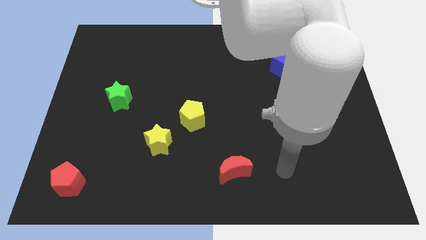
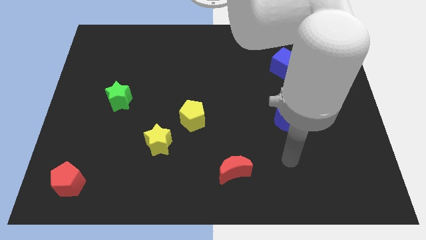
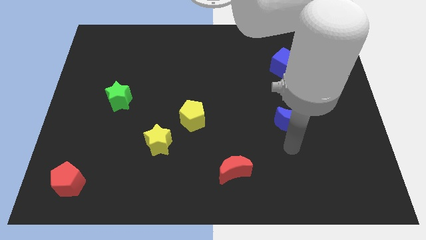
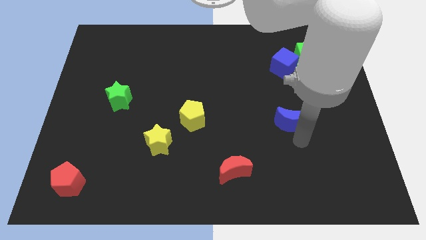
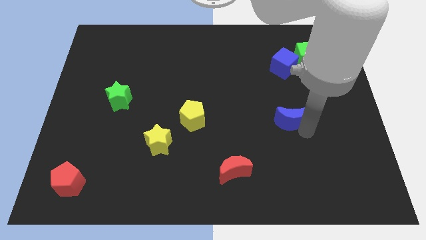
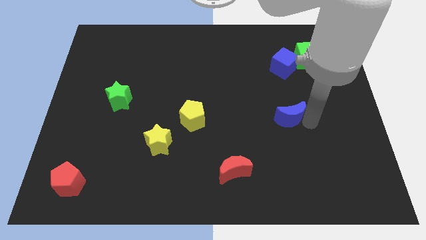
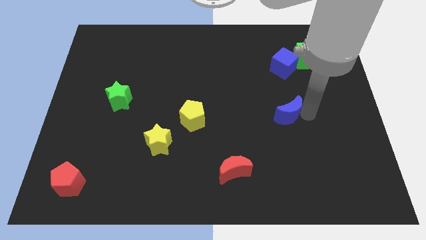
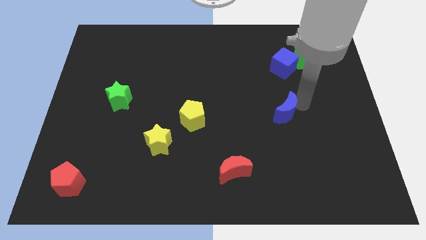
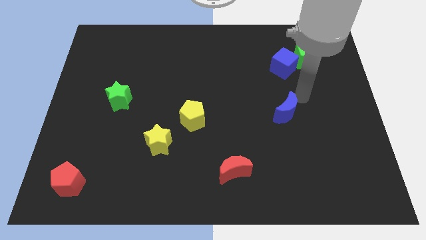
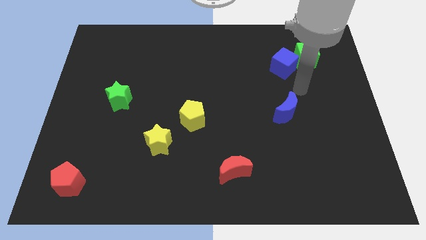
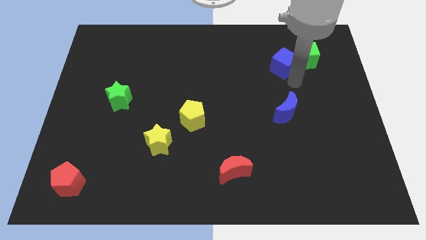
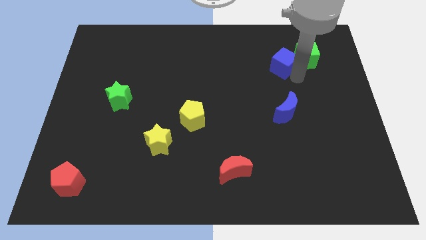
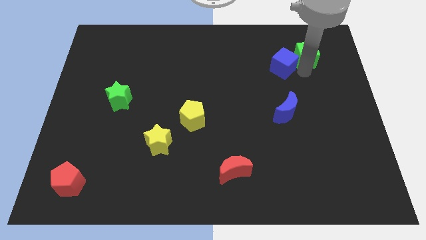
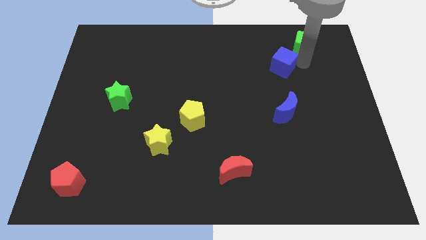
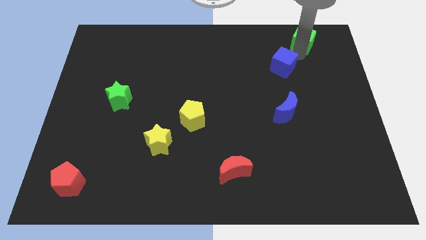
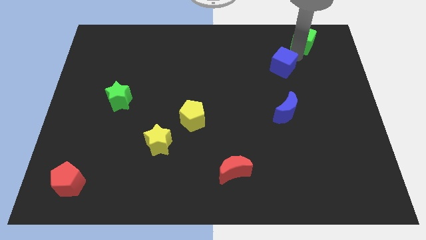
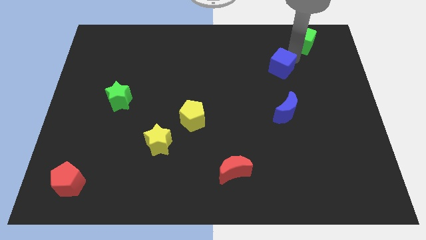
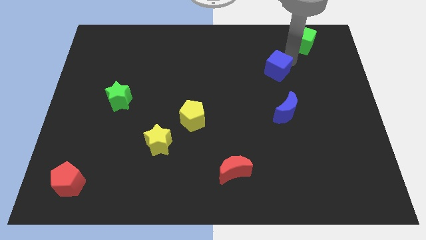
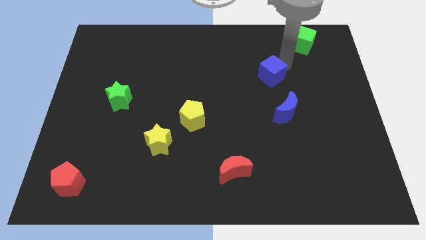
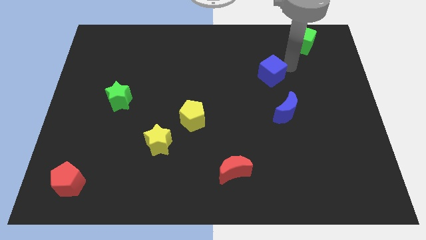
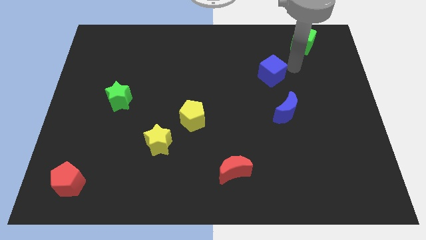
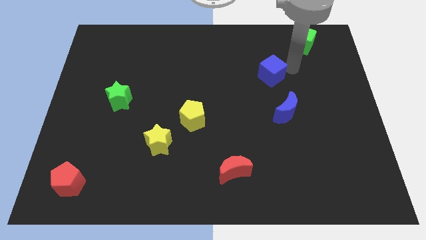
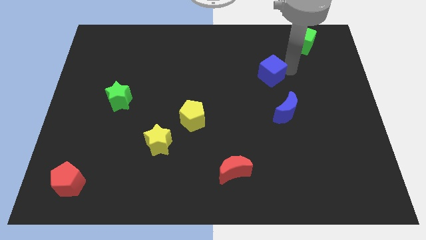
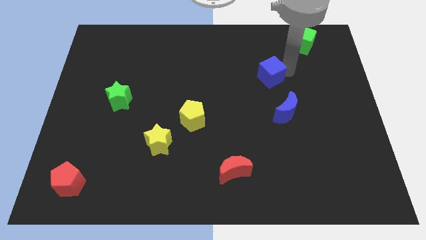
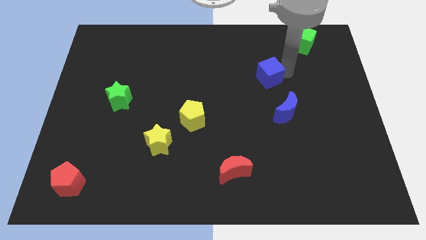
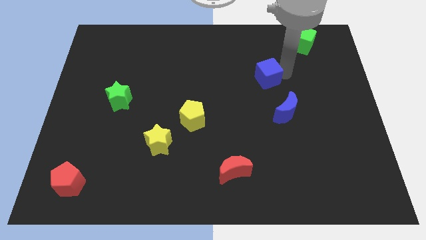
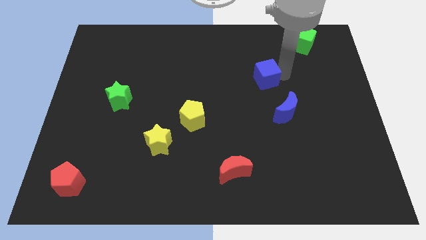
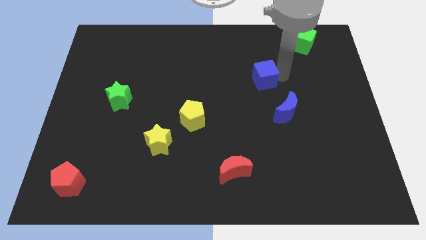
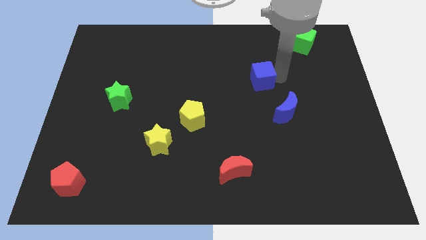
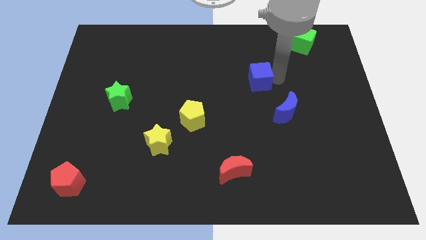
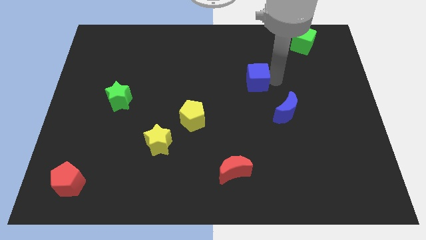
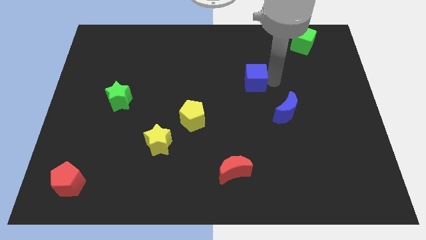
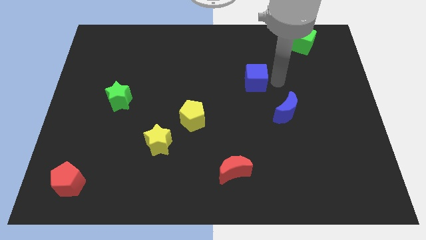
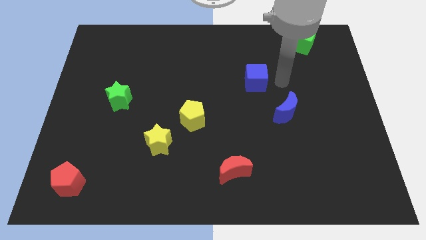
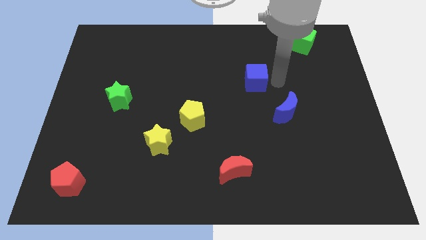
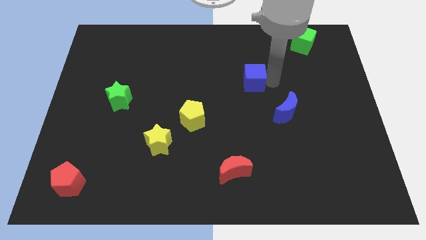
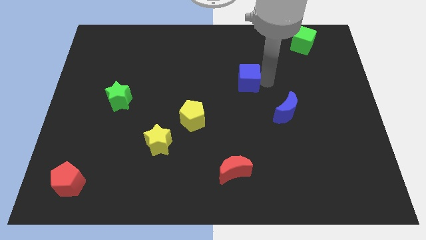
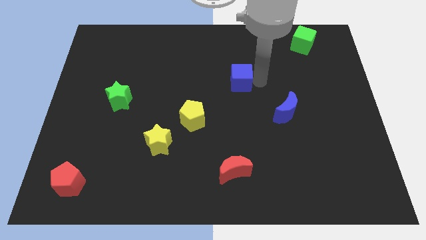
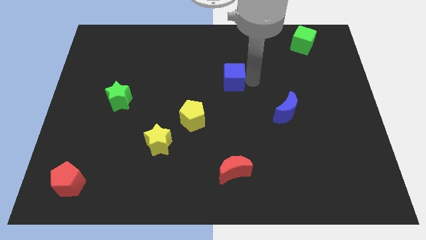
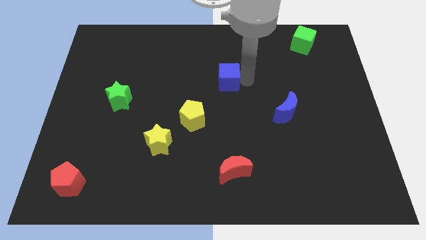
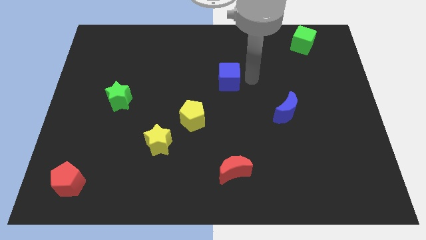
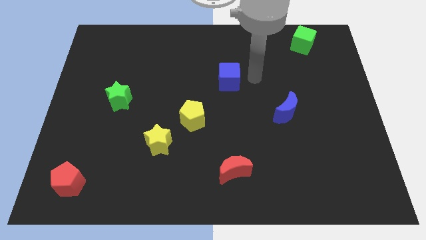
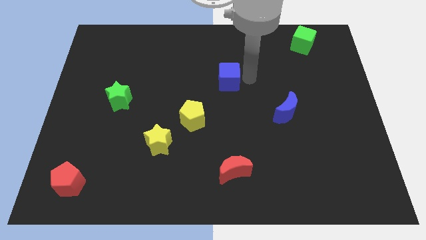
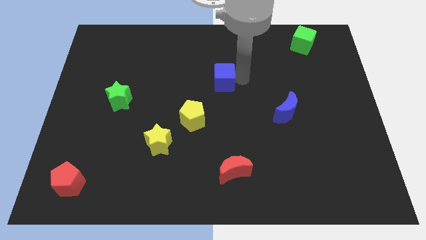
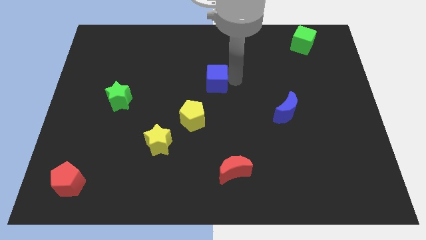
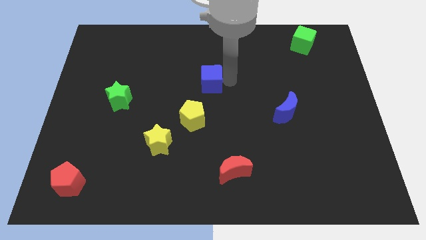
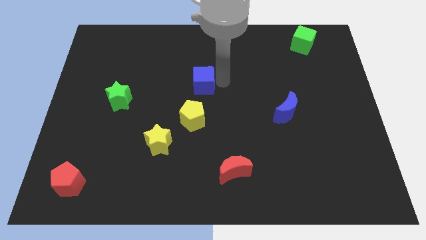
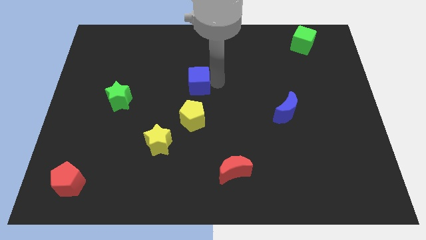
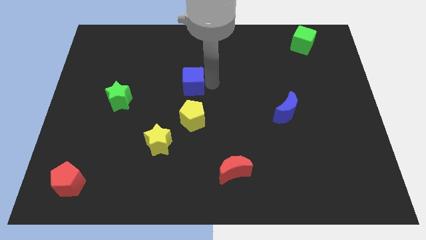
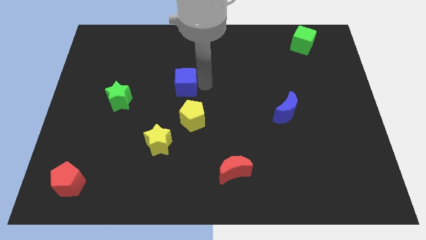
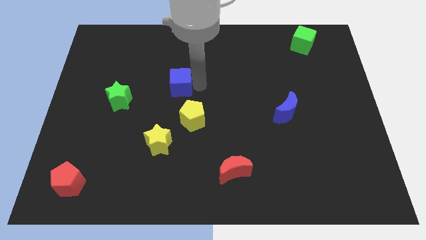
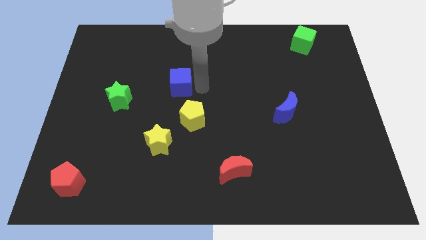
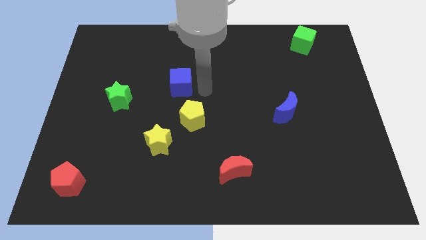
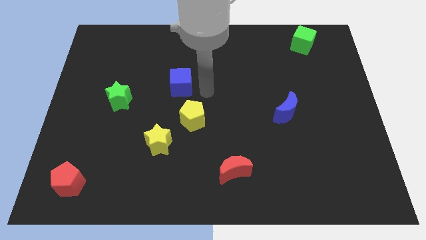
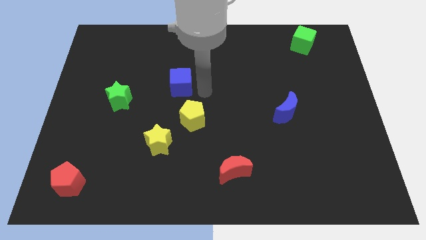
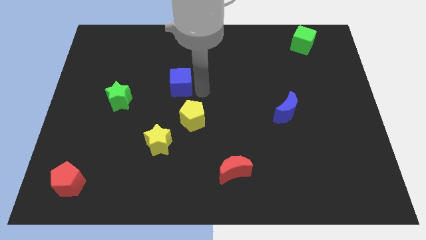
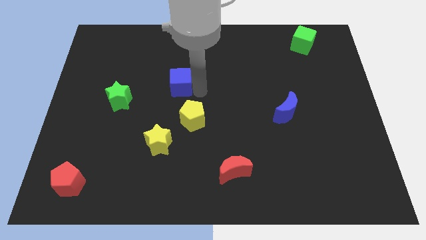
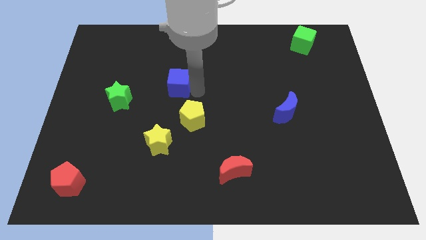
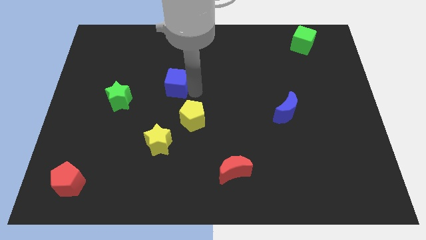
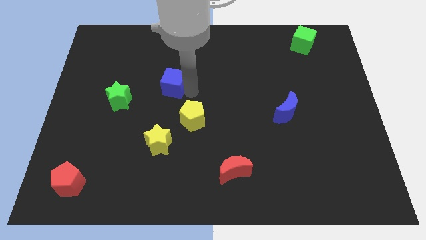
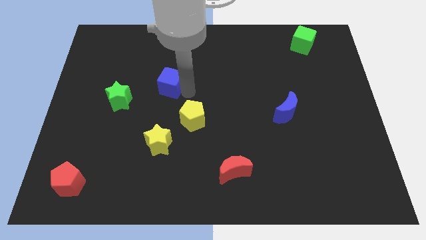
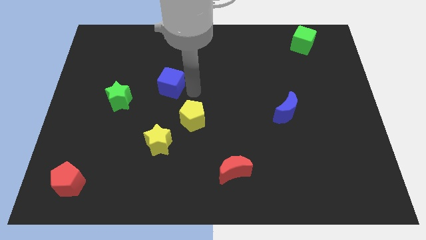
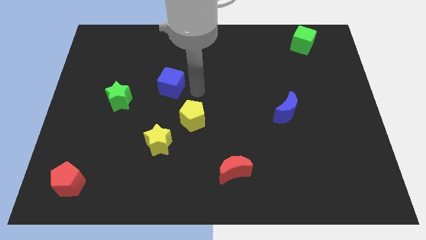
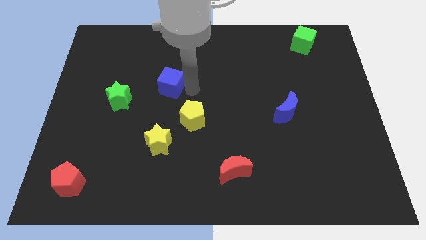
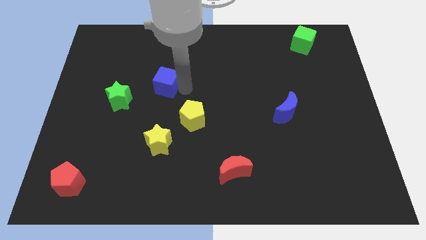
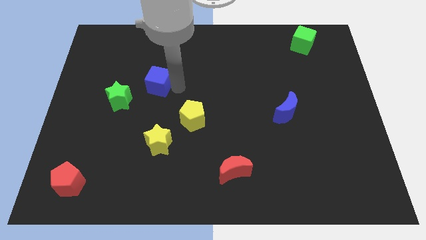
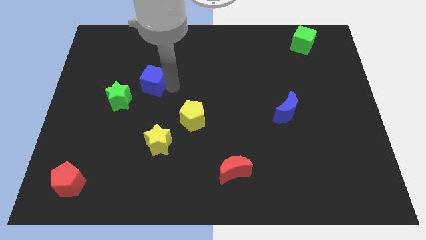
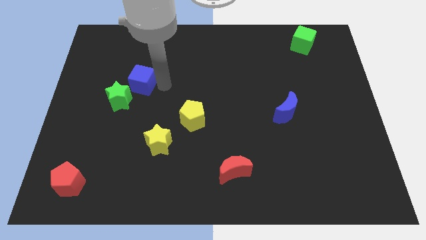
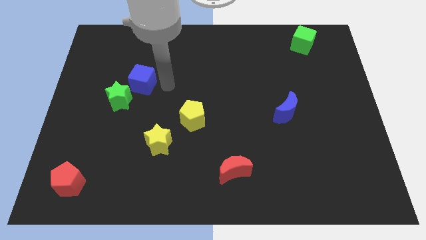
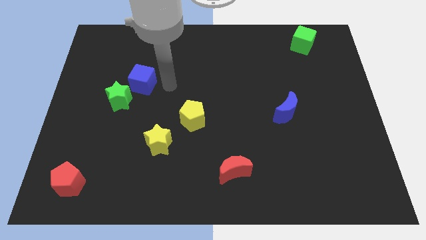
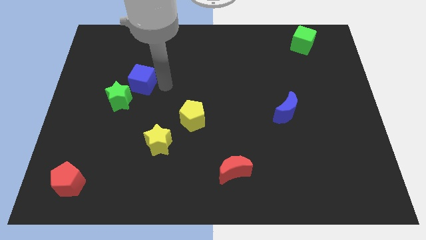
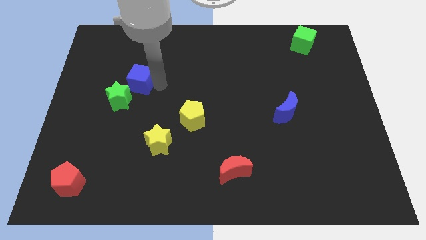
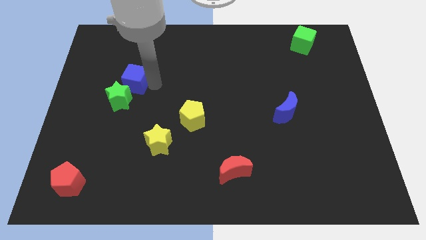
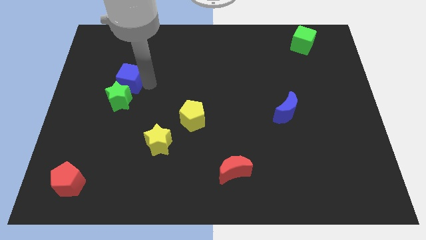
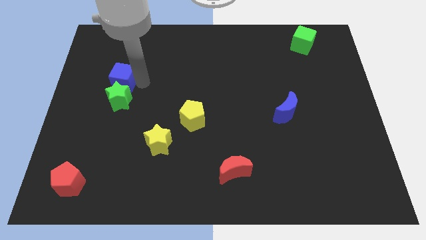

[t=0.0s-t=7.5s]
move the blue cube diagonally up and to the left of the green star
